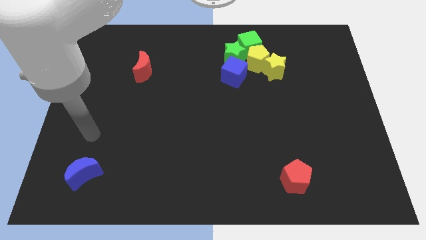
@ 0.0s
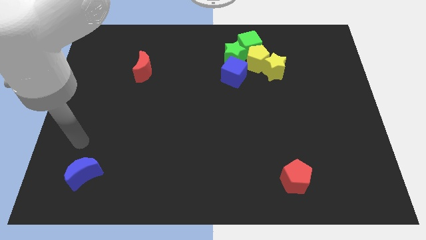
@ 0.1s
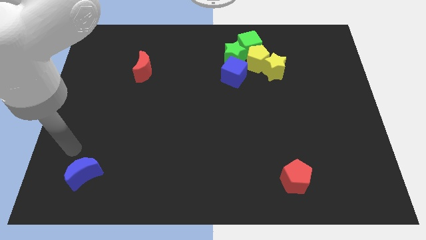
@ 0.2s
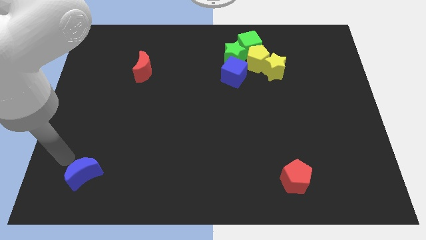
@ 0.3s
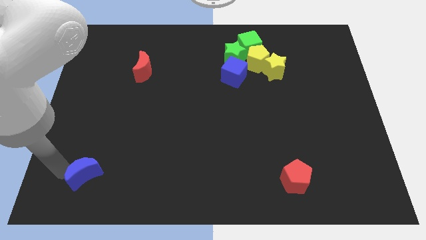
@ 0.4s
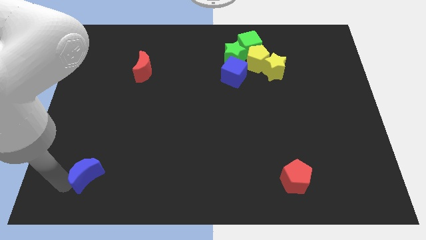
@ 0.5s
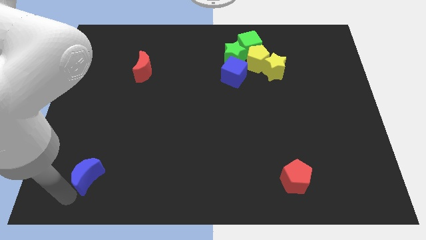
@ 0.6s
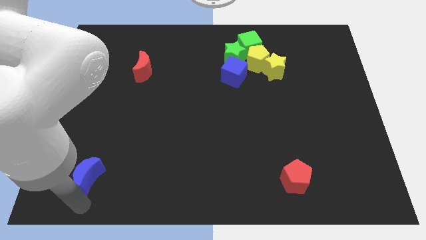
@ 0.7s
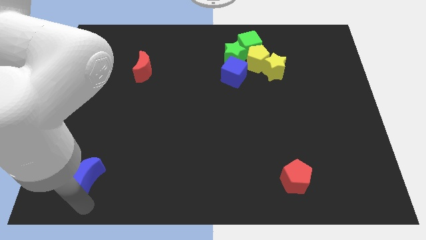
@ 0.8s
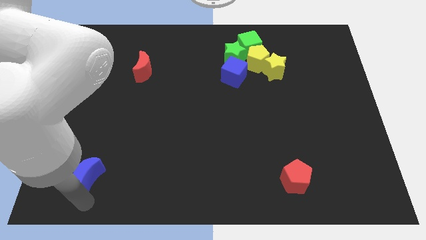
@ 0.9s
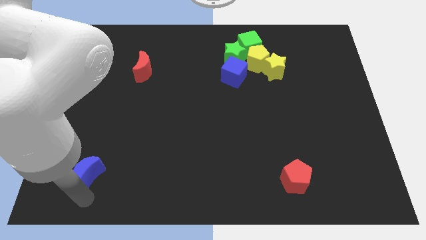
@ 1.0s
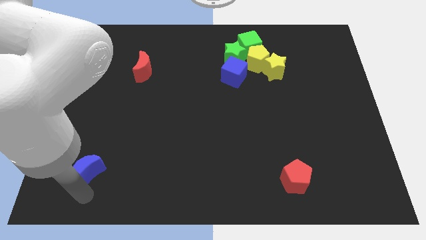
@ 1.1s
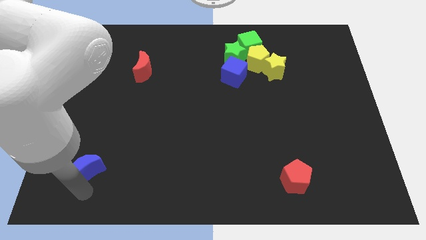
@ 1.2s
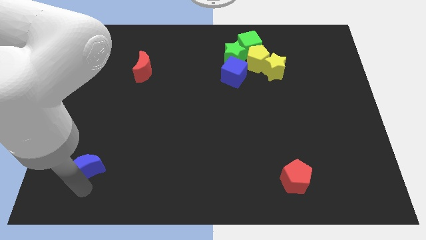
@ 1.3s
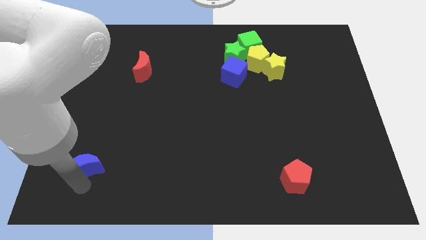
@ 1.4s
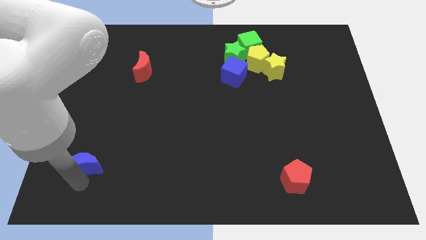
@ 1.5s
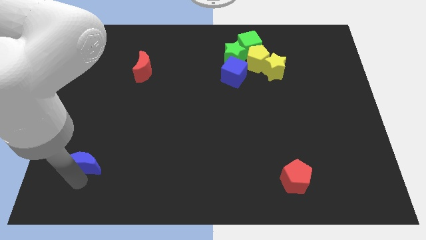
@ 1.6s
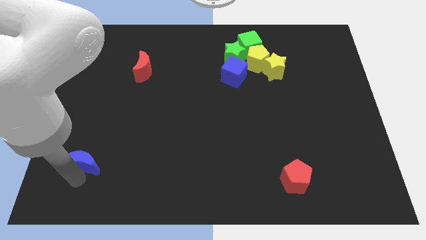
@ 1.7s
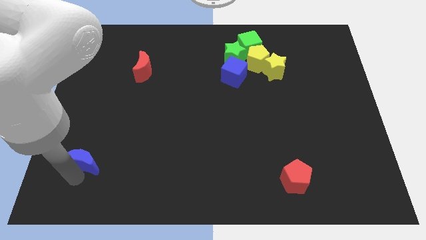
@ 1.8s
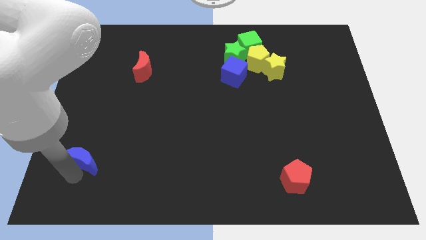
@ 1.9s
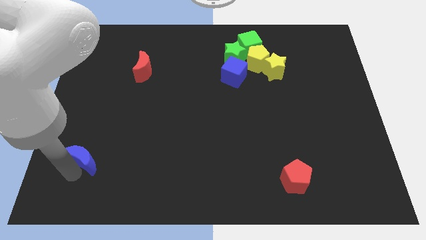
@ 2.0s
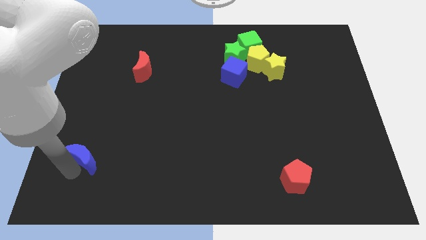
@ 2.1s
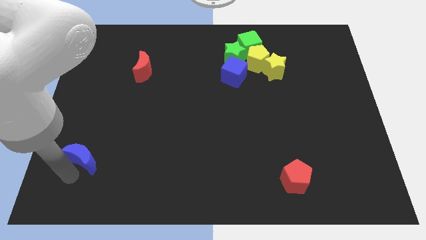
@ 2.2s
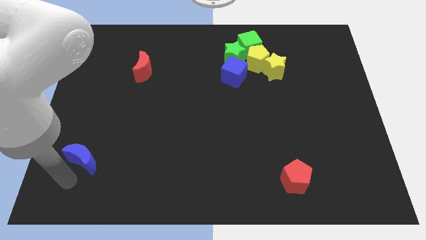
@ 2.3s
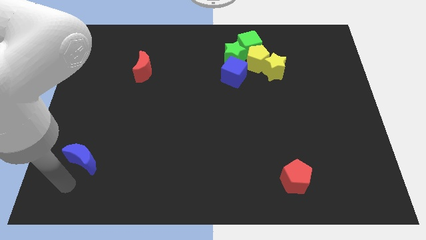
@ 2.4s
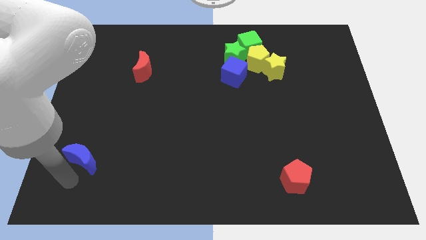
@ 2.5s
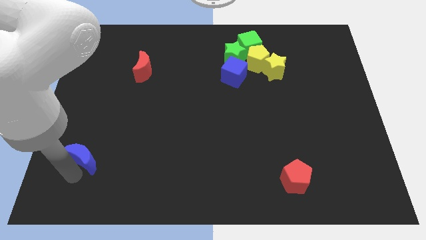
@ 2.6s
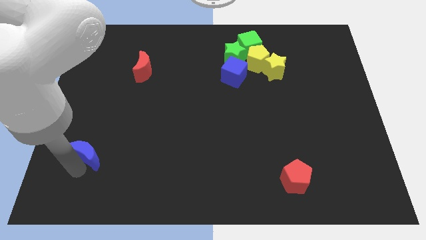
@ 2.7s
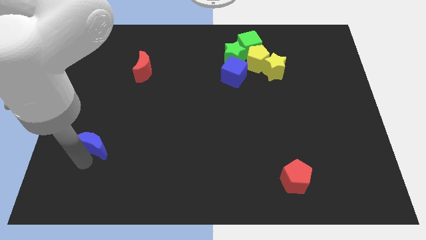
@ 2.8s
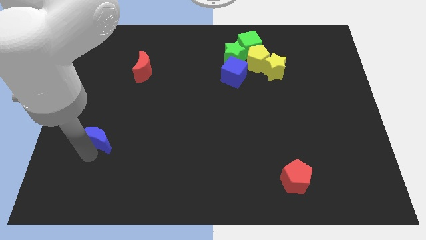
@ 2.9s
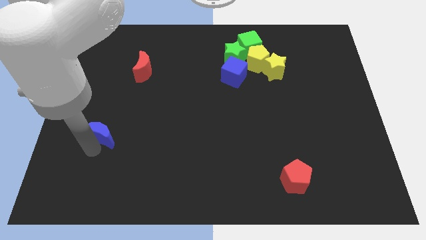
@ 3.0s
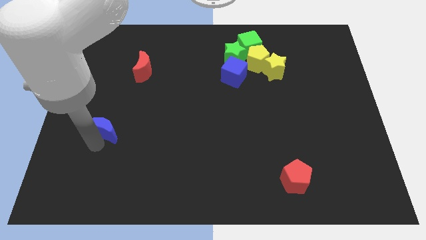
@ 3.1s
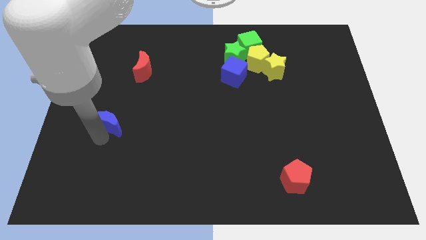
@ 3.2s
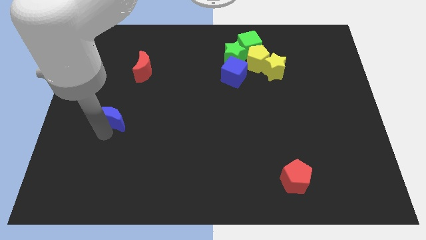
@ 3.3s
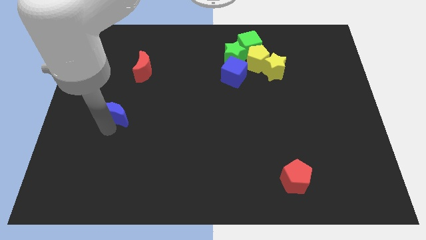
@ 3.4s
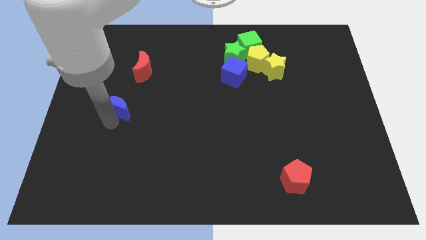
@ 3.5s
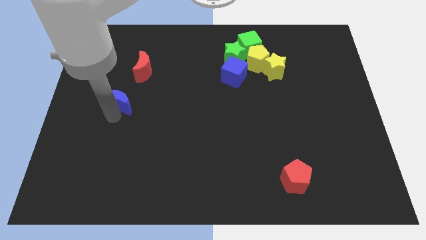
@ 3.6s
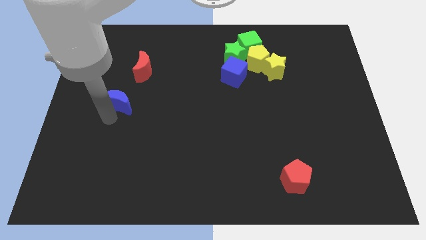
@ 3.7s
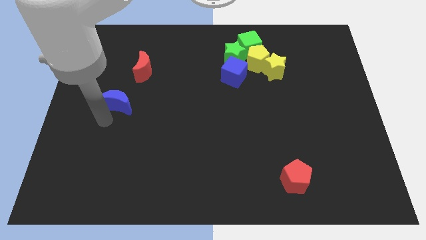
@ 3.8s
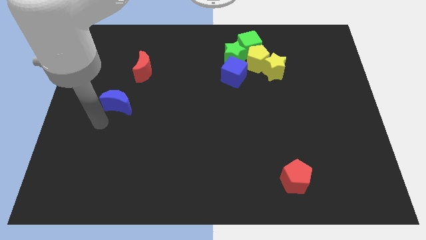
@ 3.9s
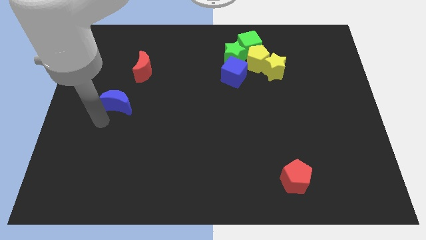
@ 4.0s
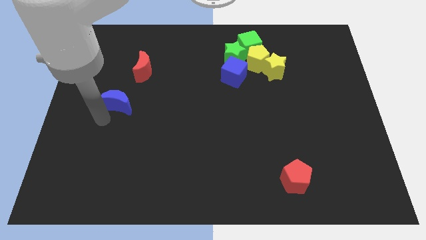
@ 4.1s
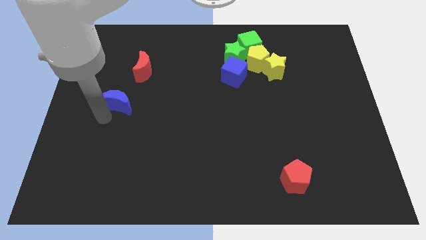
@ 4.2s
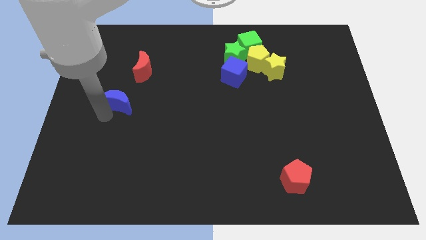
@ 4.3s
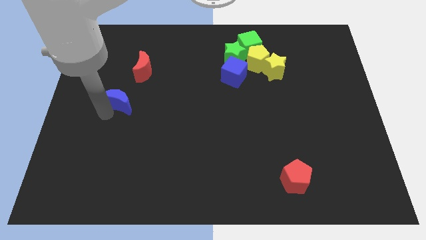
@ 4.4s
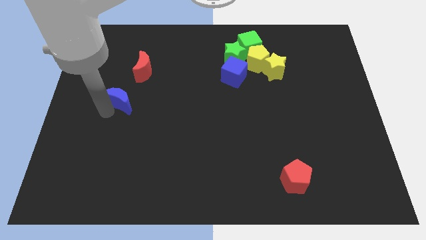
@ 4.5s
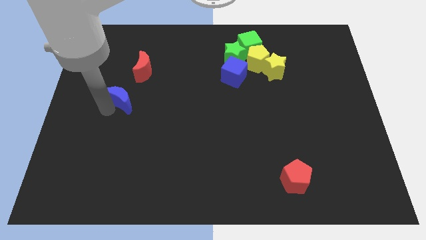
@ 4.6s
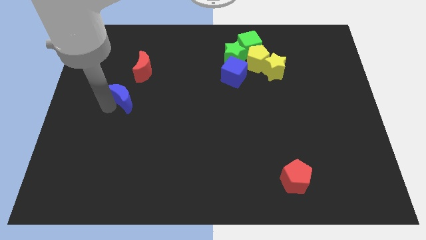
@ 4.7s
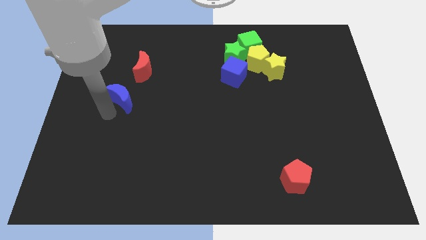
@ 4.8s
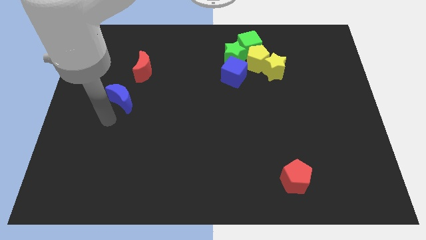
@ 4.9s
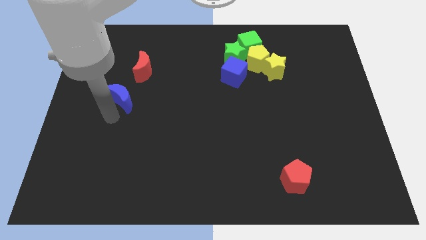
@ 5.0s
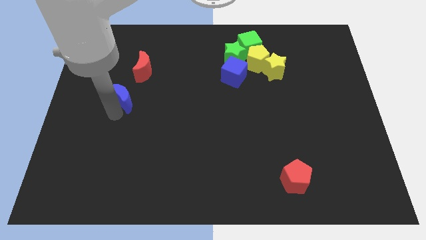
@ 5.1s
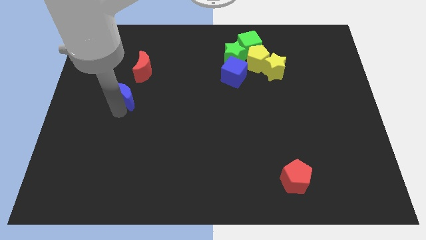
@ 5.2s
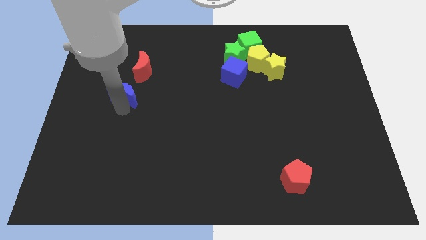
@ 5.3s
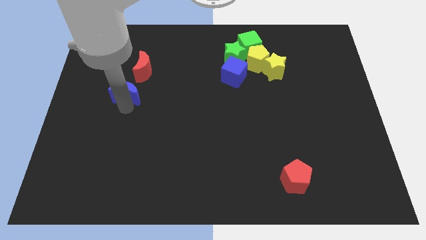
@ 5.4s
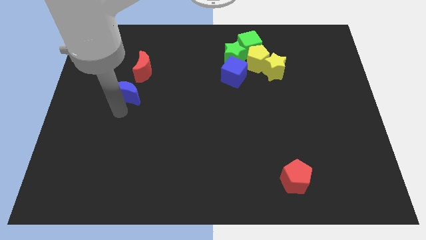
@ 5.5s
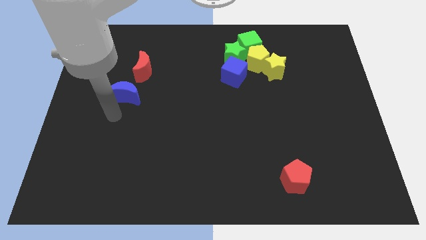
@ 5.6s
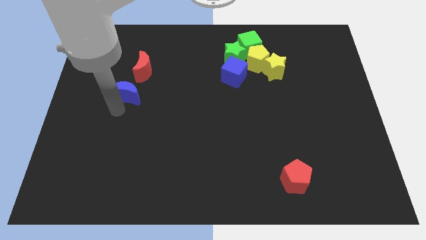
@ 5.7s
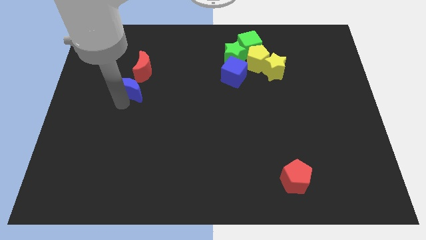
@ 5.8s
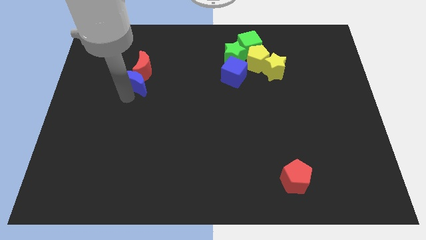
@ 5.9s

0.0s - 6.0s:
put the blue moon next to the red moon
